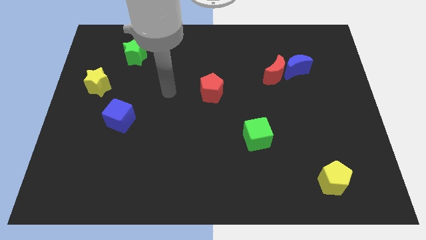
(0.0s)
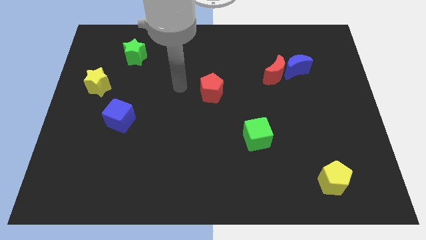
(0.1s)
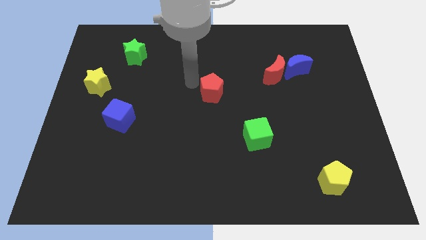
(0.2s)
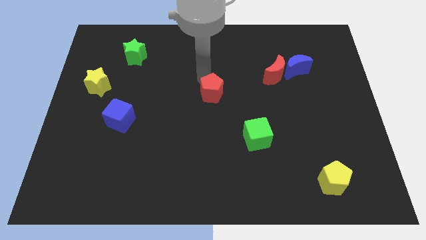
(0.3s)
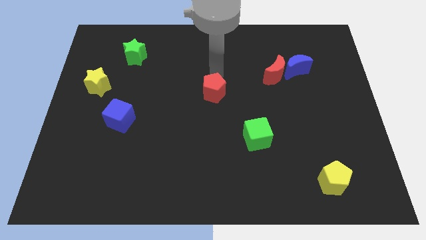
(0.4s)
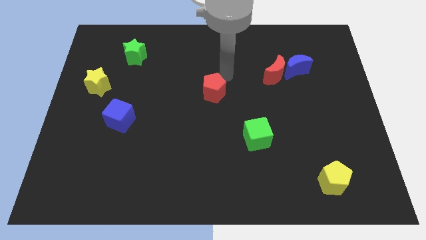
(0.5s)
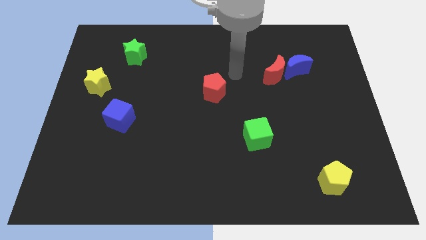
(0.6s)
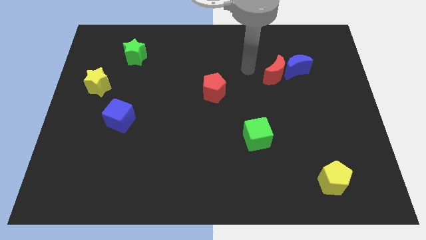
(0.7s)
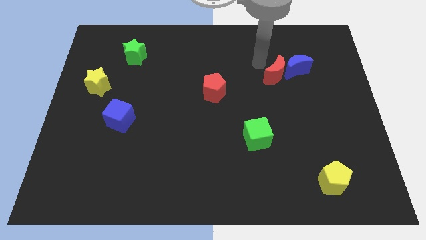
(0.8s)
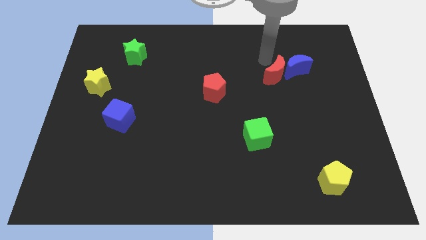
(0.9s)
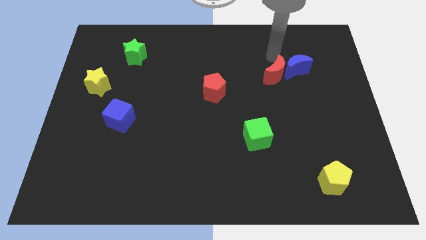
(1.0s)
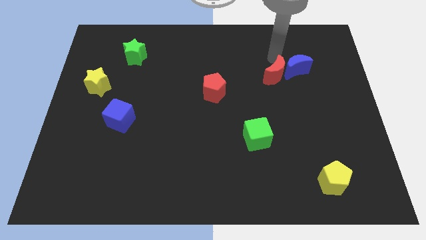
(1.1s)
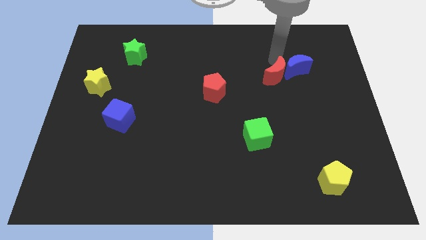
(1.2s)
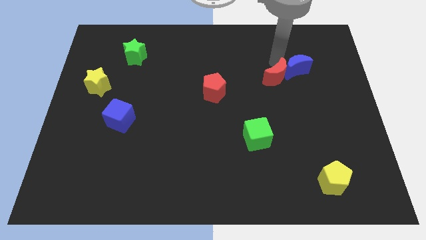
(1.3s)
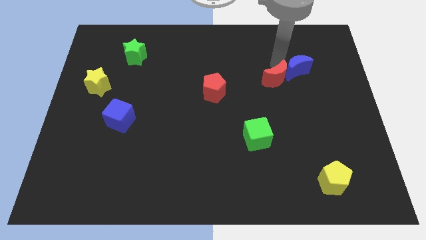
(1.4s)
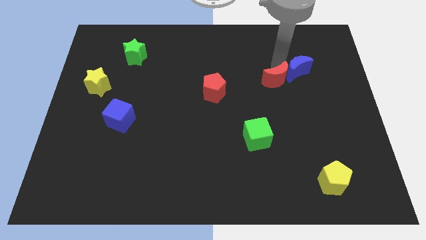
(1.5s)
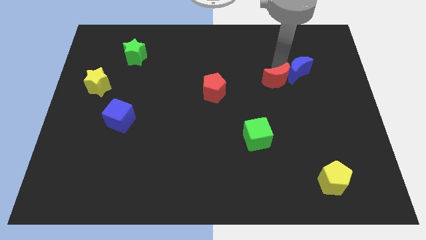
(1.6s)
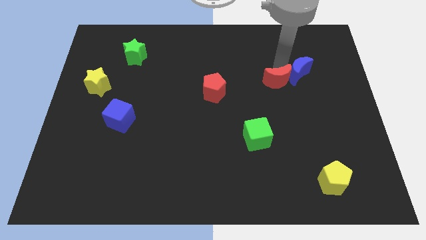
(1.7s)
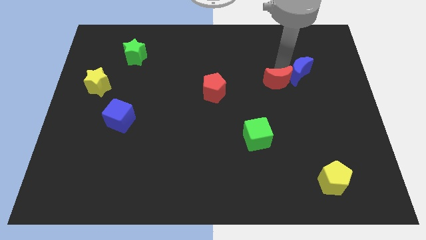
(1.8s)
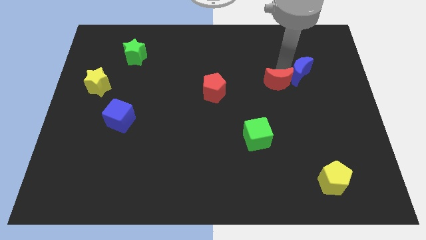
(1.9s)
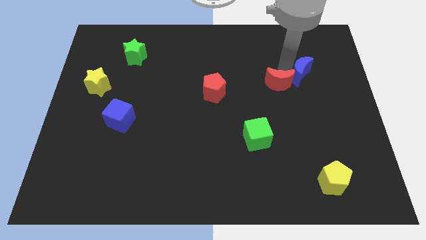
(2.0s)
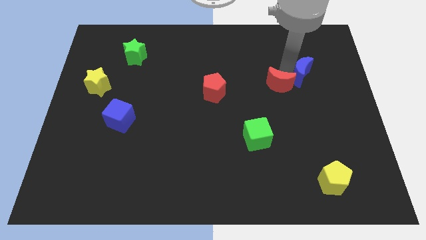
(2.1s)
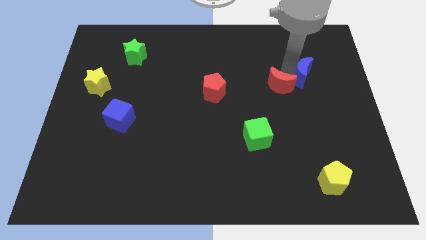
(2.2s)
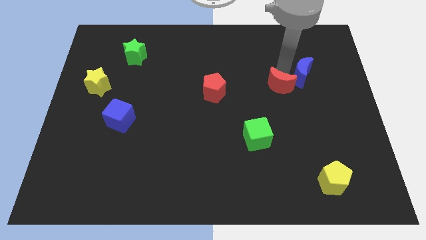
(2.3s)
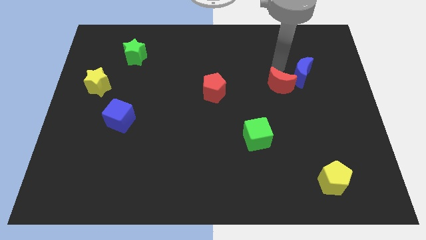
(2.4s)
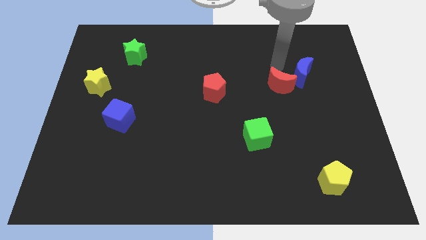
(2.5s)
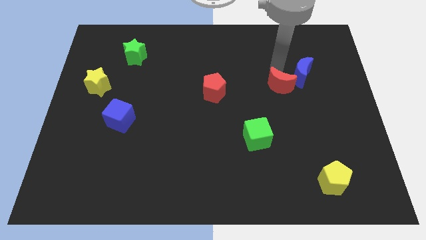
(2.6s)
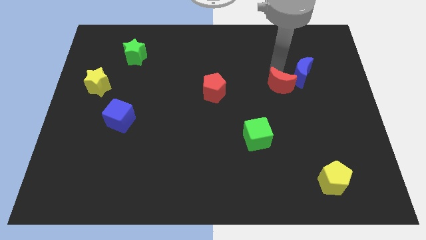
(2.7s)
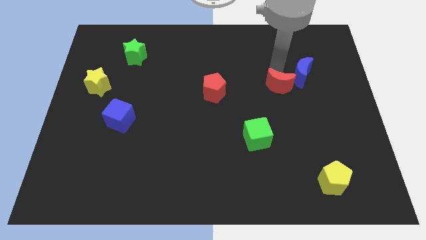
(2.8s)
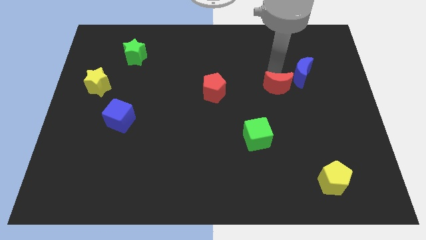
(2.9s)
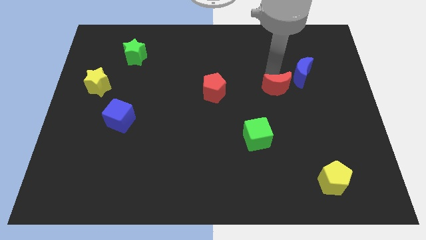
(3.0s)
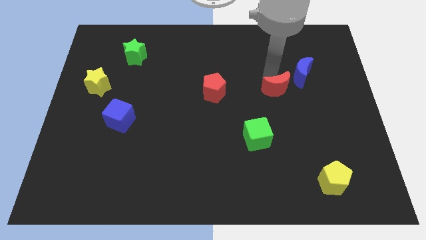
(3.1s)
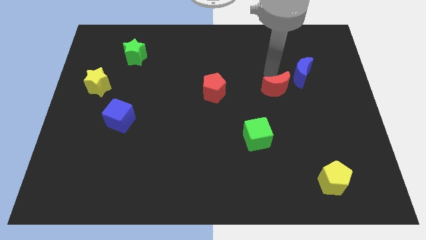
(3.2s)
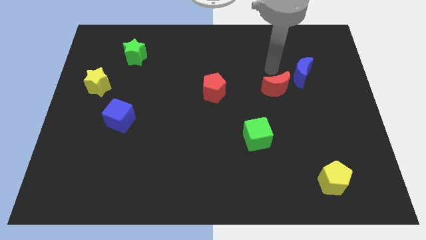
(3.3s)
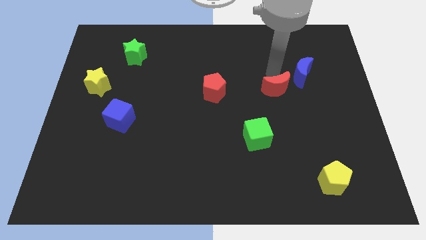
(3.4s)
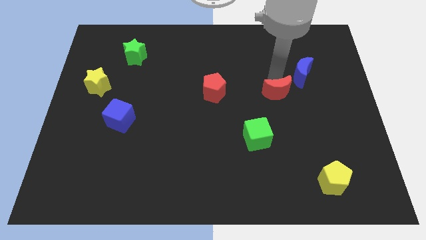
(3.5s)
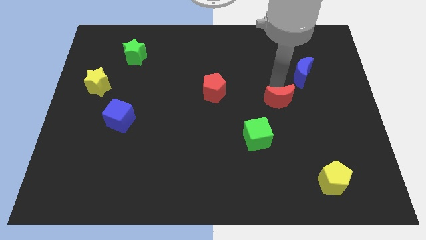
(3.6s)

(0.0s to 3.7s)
move the red moon downwards somewhat

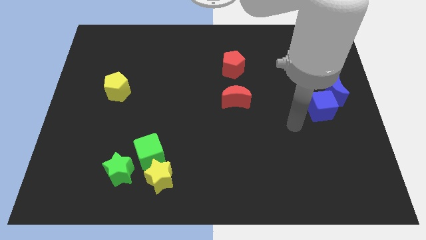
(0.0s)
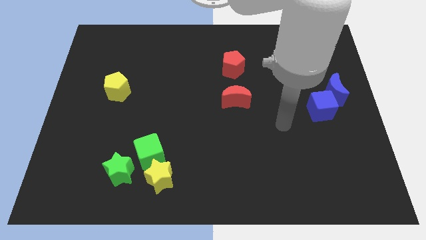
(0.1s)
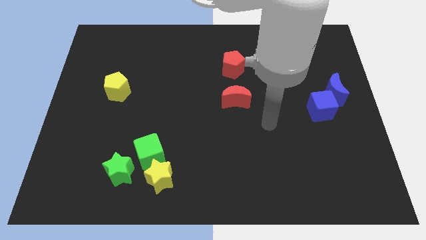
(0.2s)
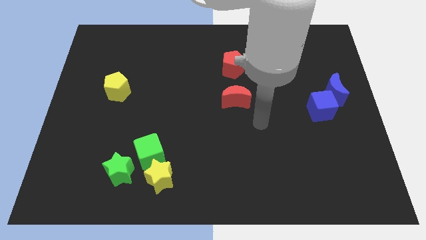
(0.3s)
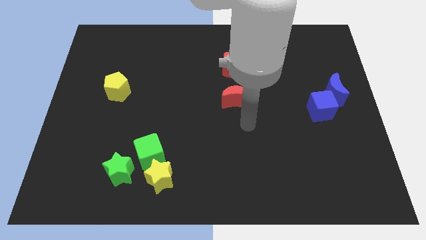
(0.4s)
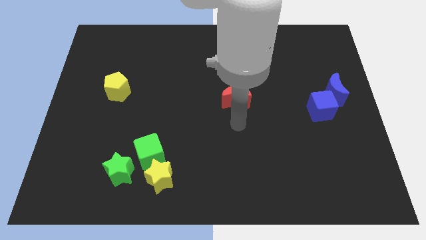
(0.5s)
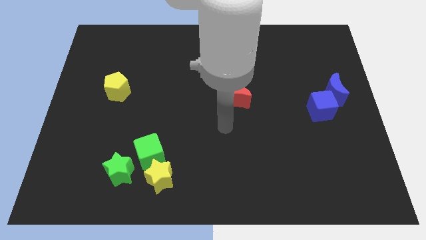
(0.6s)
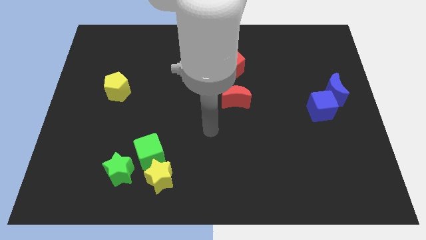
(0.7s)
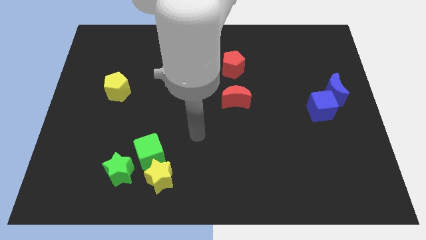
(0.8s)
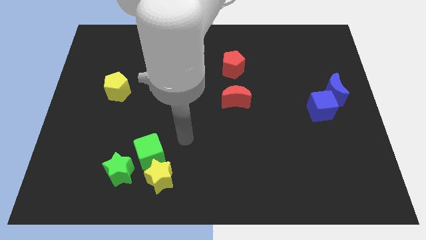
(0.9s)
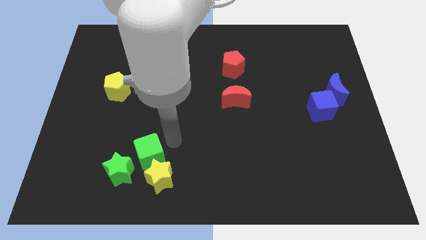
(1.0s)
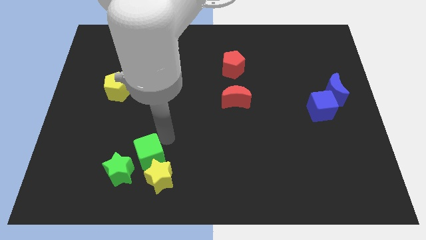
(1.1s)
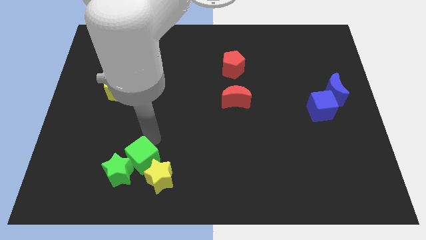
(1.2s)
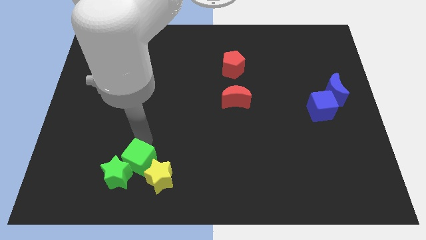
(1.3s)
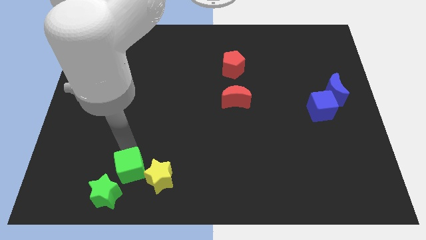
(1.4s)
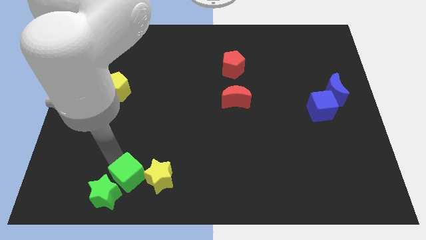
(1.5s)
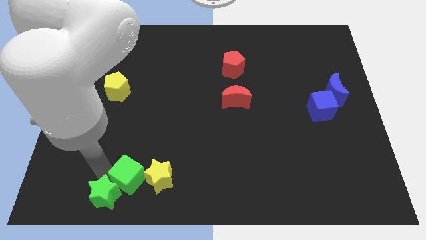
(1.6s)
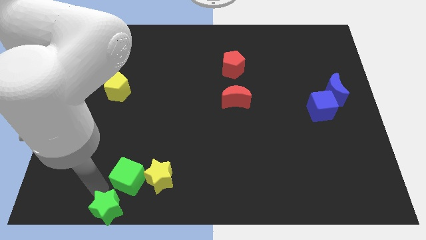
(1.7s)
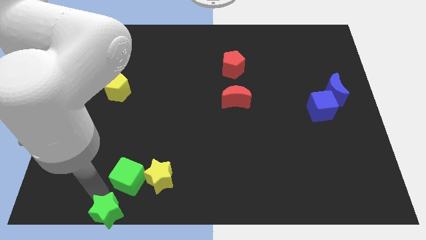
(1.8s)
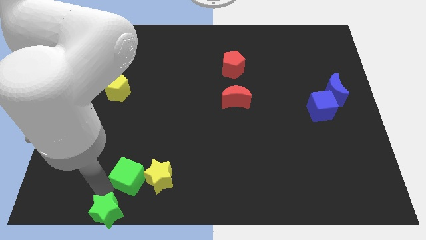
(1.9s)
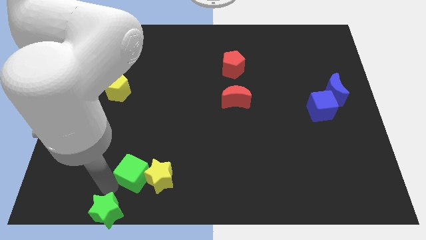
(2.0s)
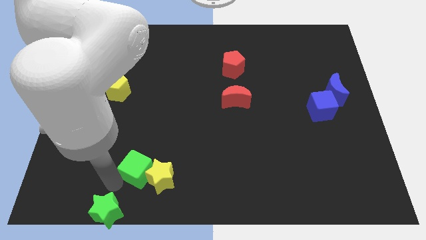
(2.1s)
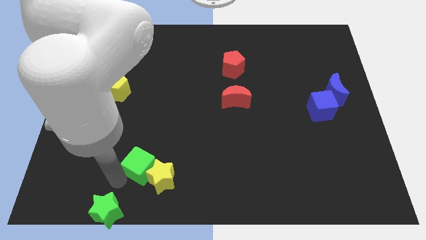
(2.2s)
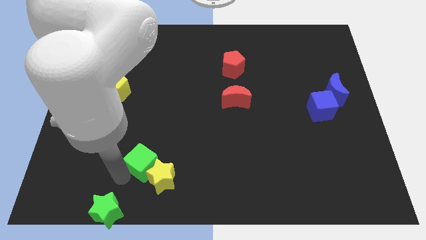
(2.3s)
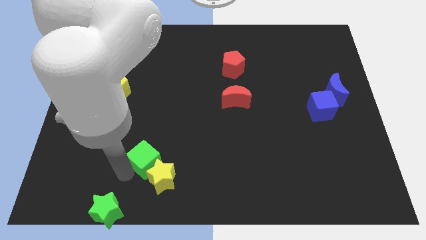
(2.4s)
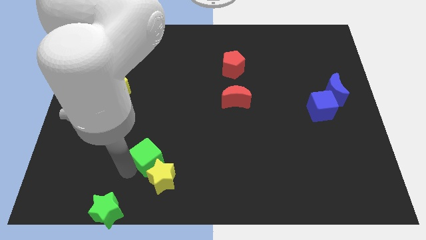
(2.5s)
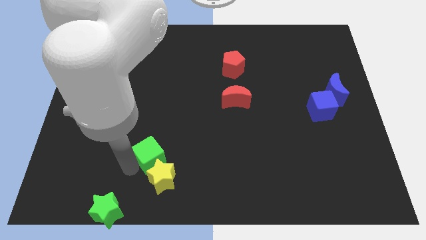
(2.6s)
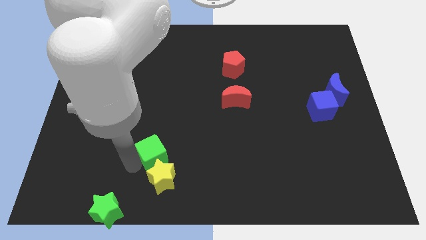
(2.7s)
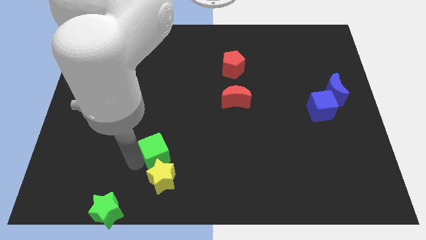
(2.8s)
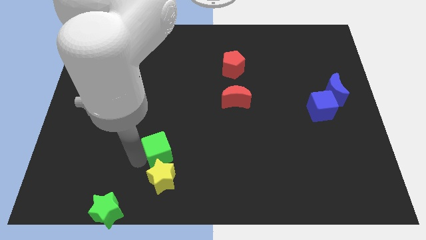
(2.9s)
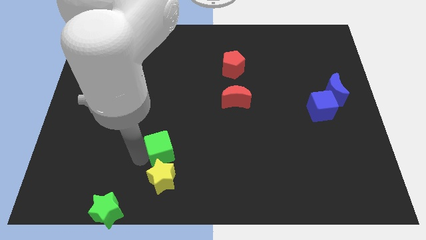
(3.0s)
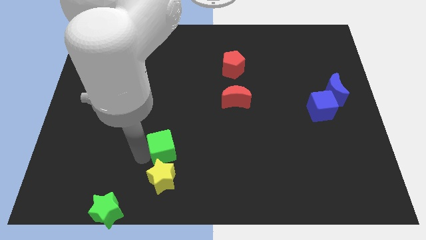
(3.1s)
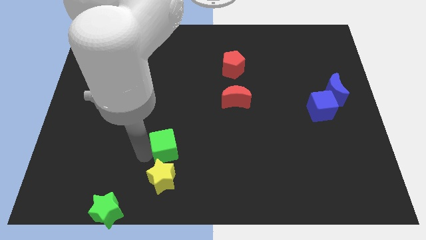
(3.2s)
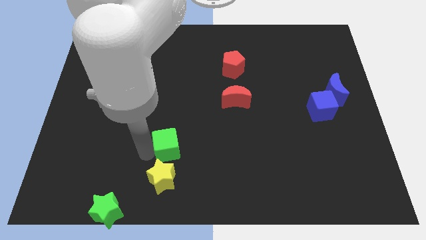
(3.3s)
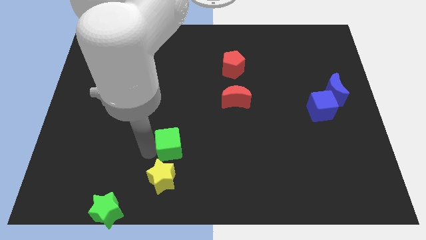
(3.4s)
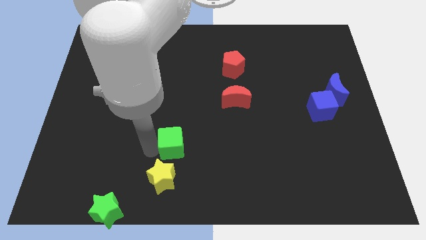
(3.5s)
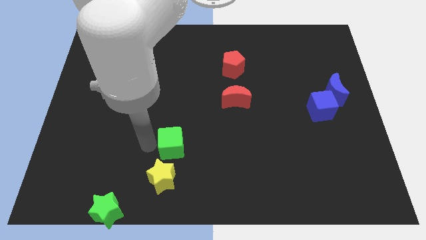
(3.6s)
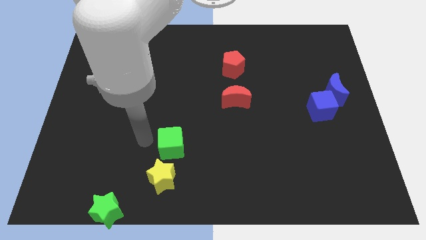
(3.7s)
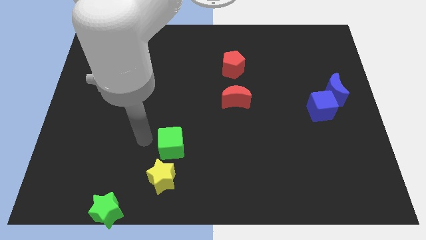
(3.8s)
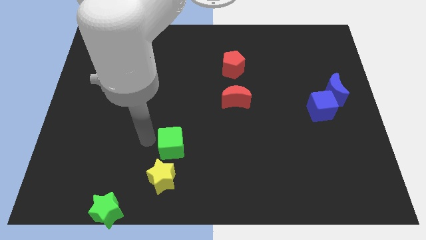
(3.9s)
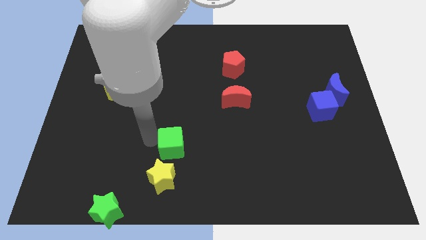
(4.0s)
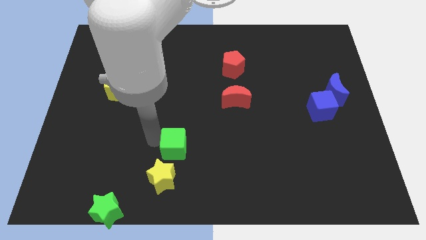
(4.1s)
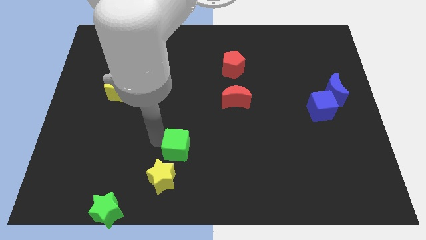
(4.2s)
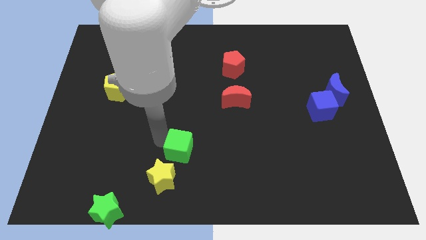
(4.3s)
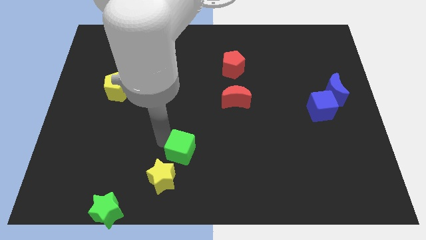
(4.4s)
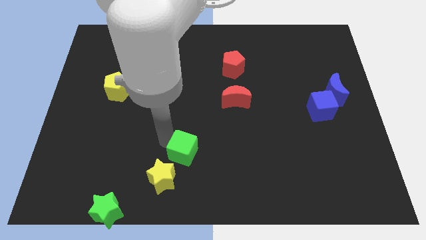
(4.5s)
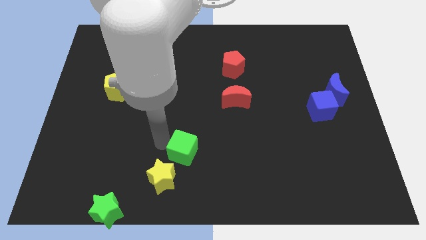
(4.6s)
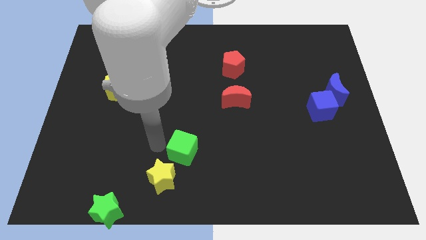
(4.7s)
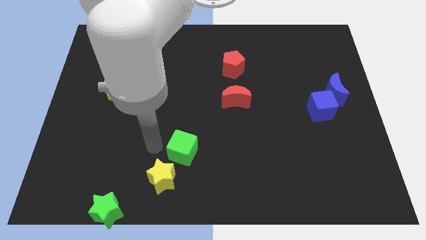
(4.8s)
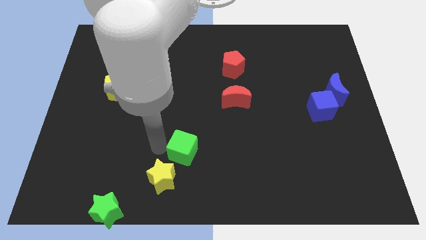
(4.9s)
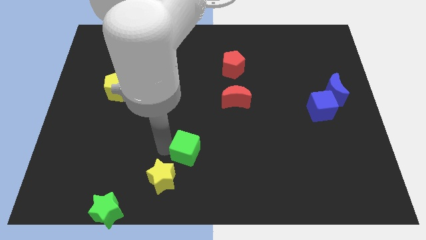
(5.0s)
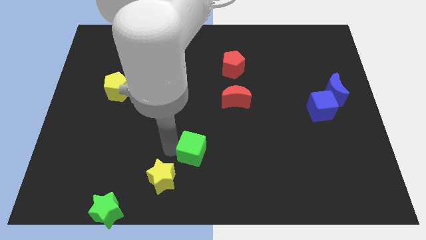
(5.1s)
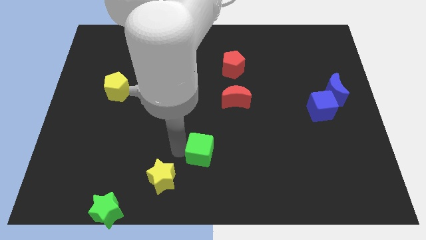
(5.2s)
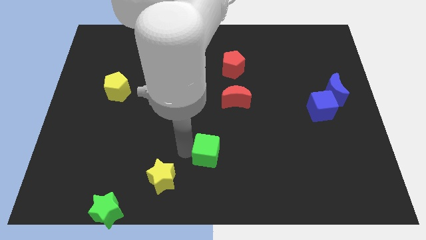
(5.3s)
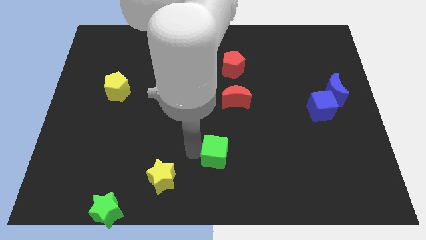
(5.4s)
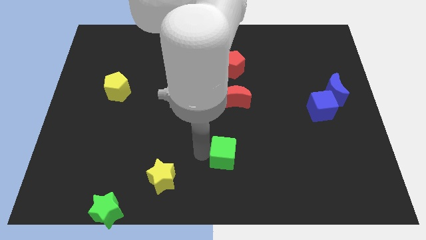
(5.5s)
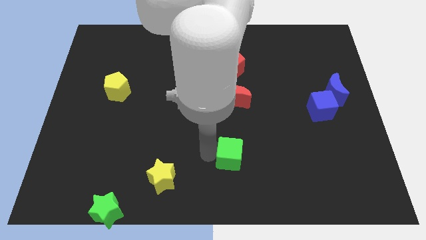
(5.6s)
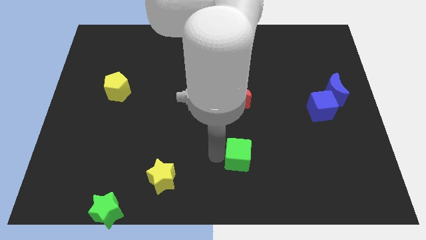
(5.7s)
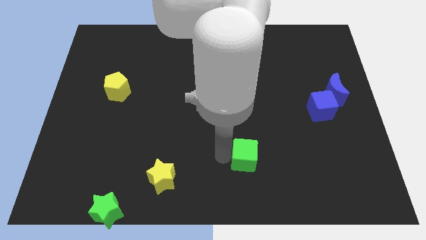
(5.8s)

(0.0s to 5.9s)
move the green cube right
